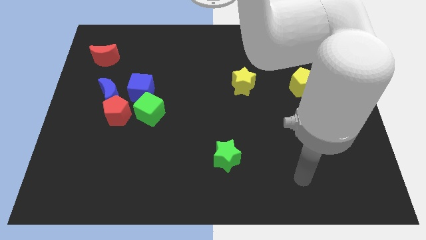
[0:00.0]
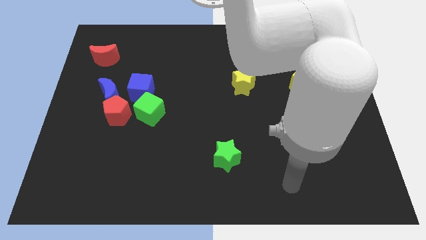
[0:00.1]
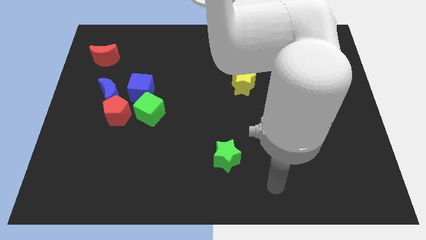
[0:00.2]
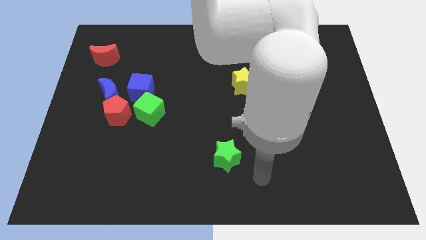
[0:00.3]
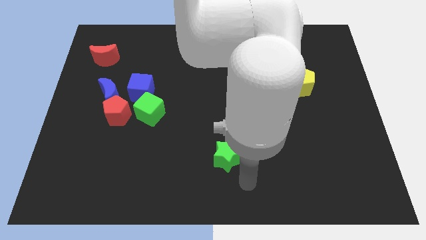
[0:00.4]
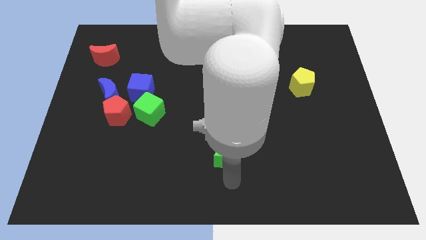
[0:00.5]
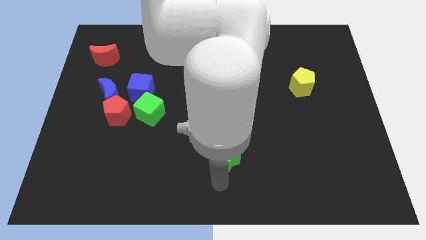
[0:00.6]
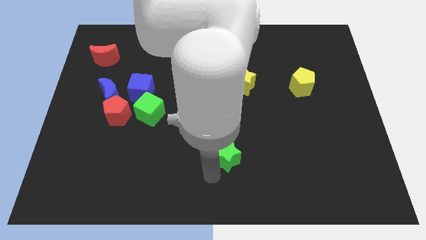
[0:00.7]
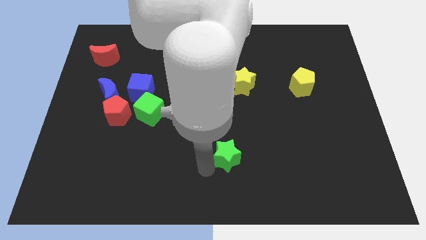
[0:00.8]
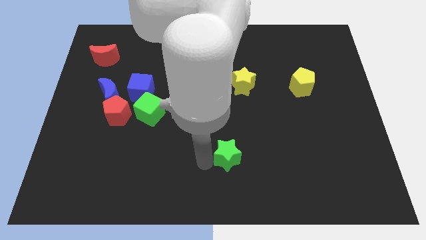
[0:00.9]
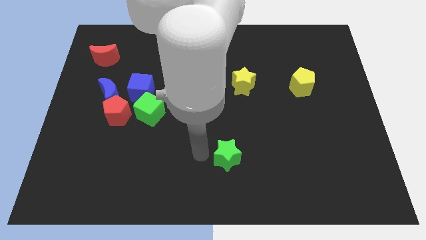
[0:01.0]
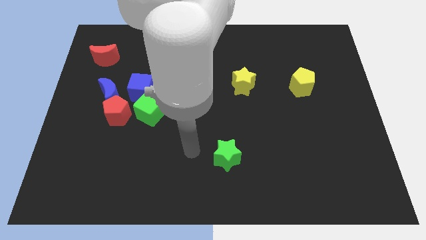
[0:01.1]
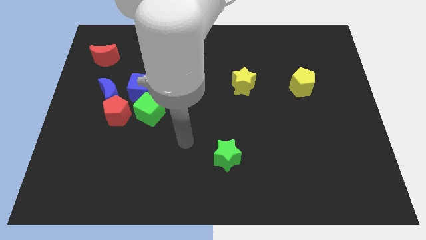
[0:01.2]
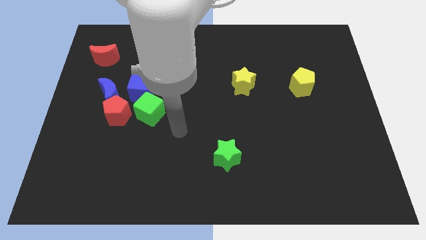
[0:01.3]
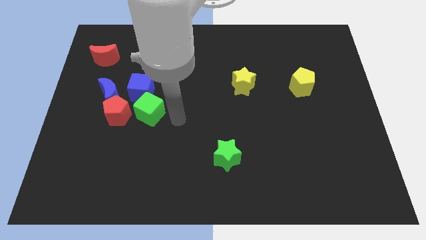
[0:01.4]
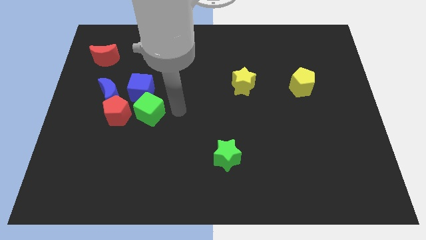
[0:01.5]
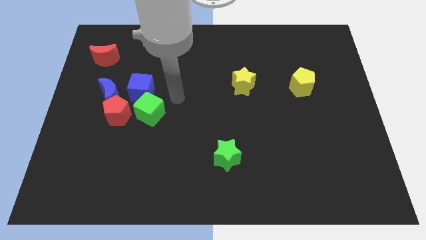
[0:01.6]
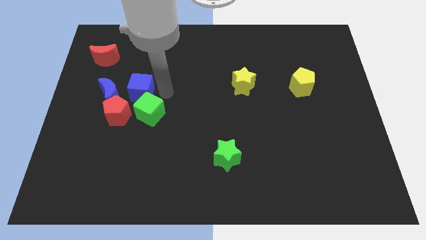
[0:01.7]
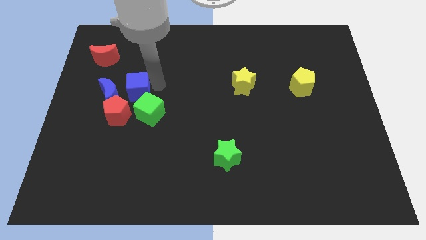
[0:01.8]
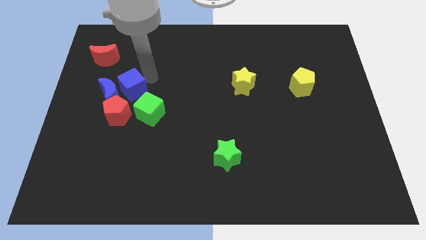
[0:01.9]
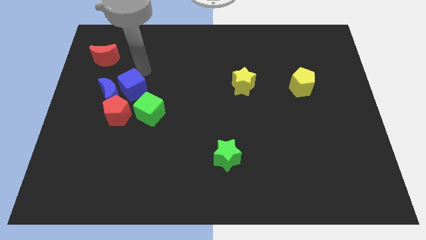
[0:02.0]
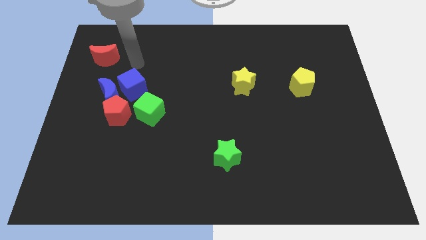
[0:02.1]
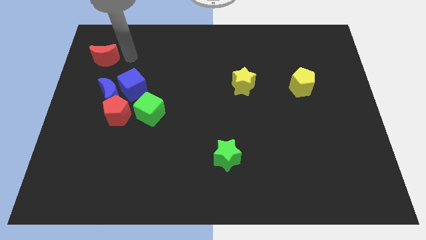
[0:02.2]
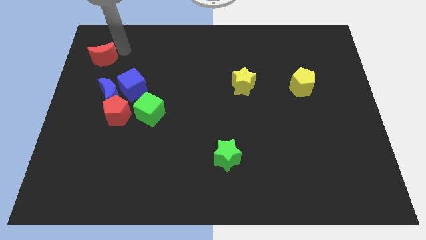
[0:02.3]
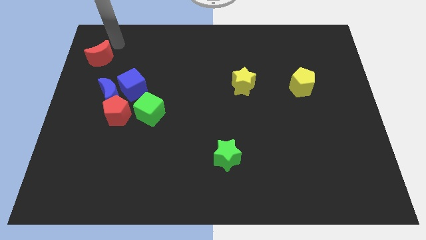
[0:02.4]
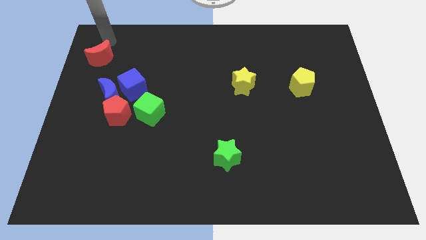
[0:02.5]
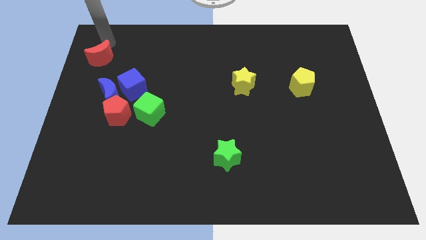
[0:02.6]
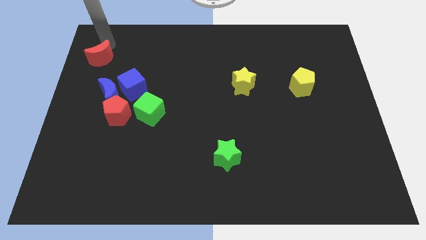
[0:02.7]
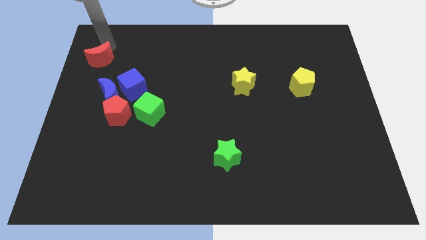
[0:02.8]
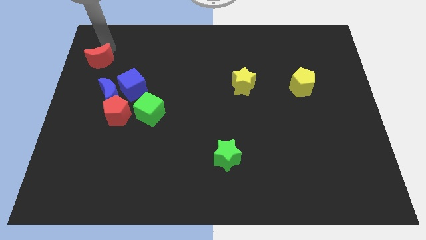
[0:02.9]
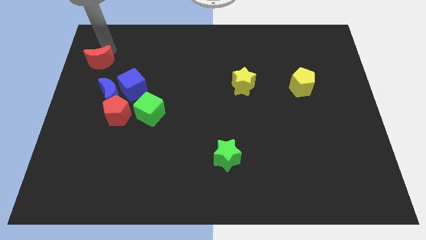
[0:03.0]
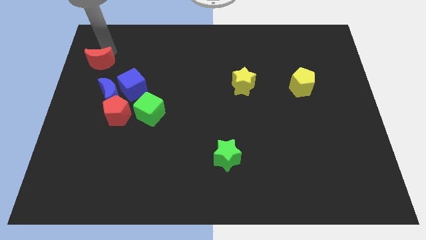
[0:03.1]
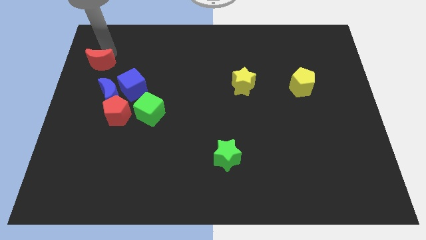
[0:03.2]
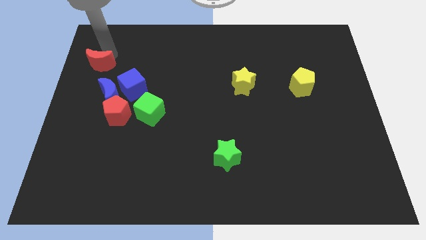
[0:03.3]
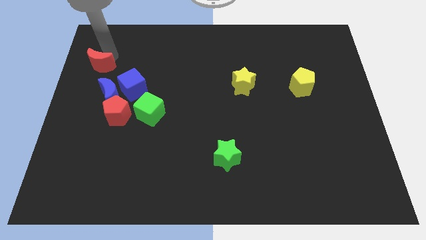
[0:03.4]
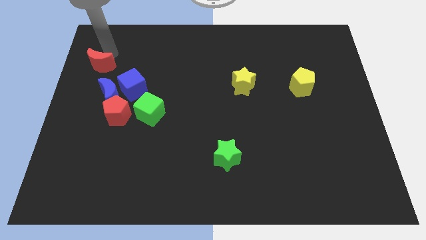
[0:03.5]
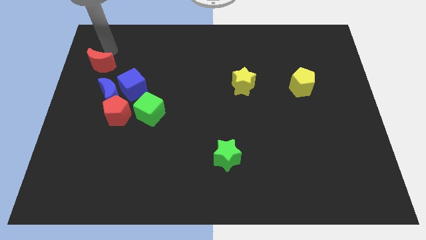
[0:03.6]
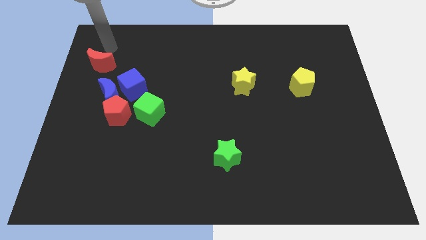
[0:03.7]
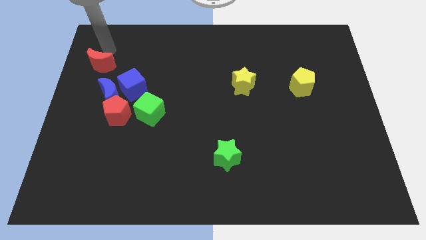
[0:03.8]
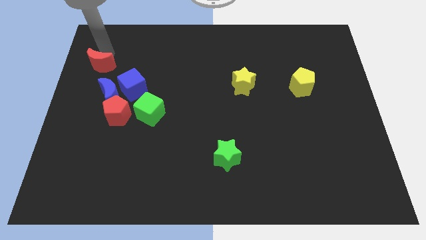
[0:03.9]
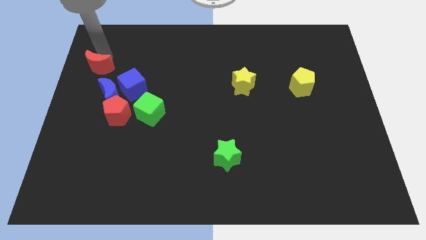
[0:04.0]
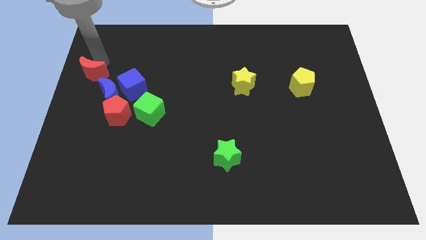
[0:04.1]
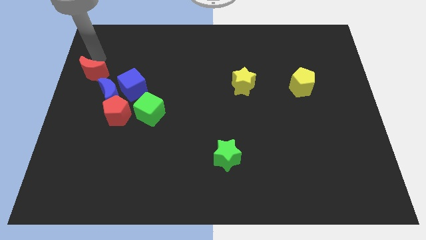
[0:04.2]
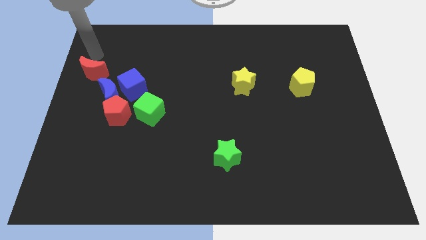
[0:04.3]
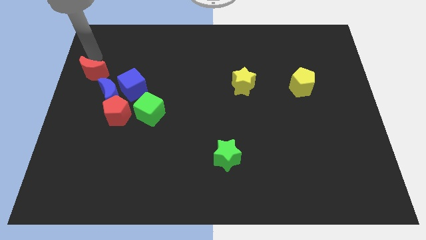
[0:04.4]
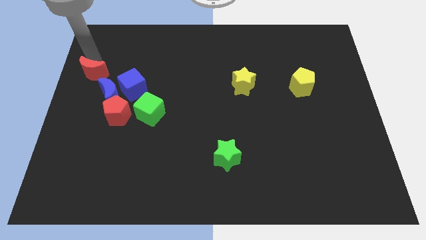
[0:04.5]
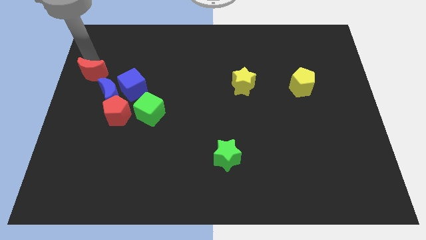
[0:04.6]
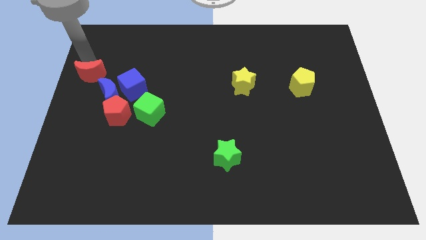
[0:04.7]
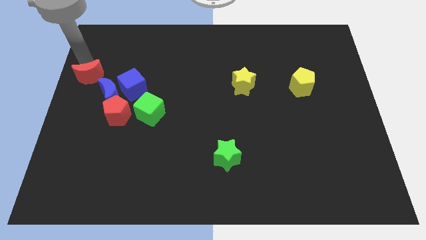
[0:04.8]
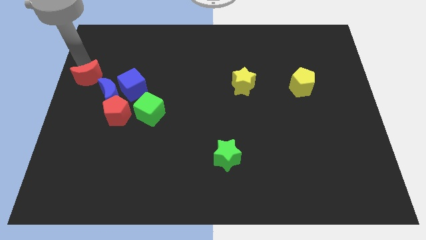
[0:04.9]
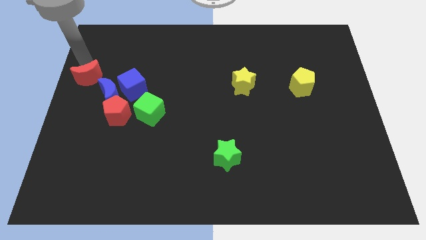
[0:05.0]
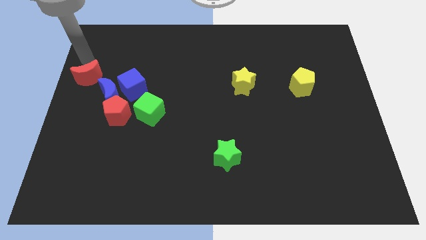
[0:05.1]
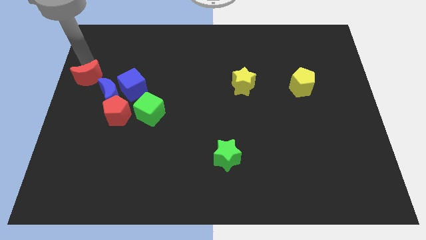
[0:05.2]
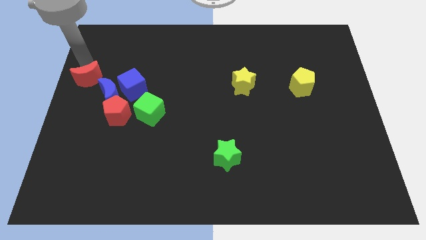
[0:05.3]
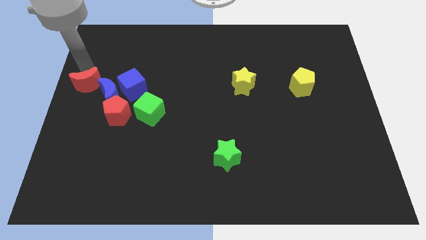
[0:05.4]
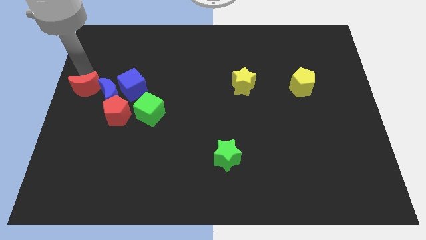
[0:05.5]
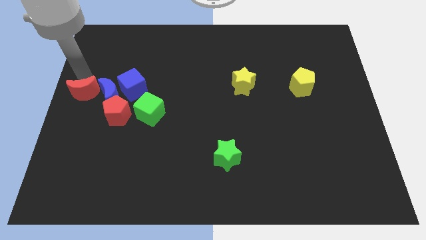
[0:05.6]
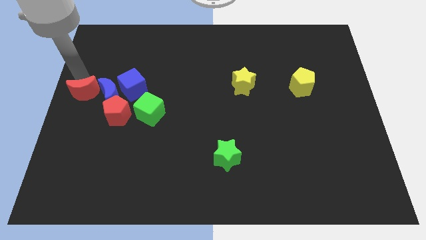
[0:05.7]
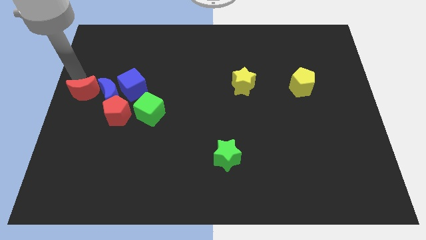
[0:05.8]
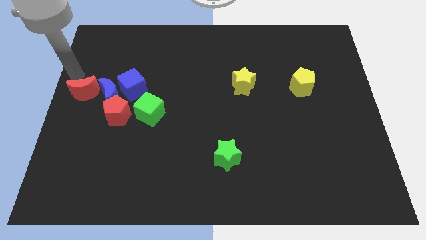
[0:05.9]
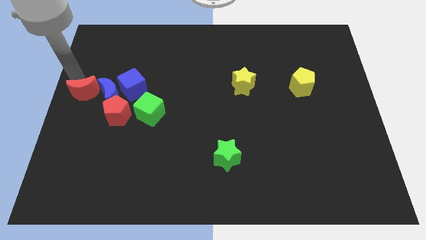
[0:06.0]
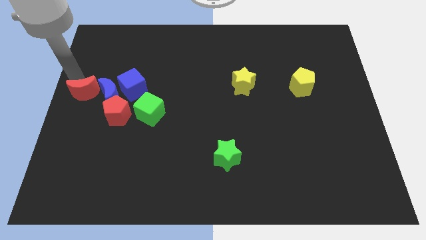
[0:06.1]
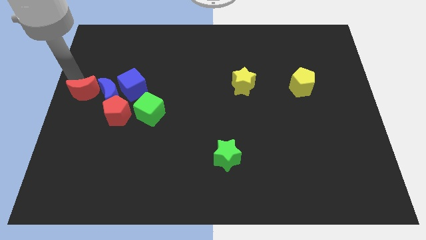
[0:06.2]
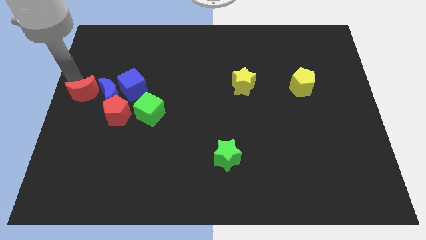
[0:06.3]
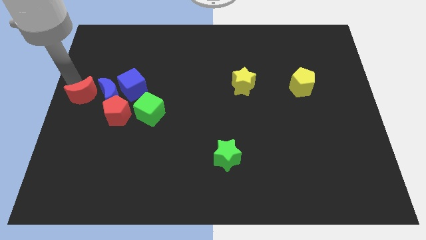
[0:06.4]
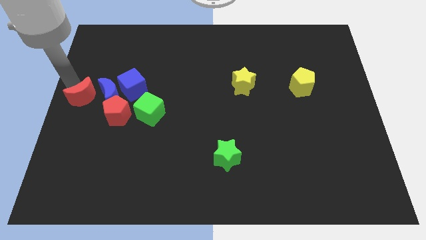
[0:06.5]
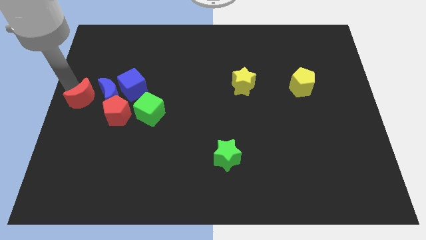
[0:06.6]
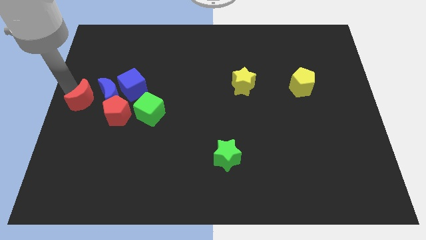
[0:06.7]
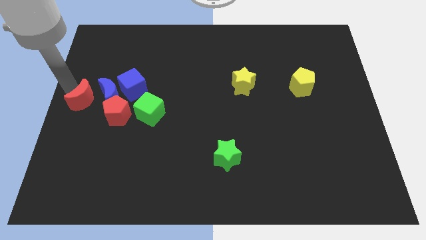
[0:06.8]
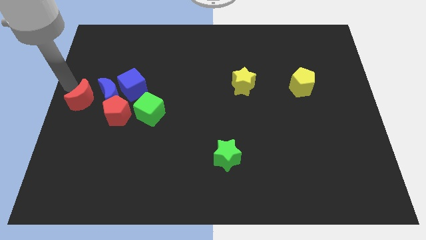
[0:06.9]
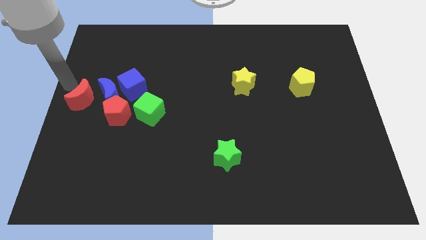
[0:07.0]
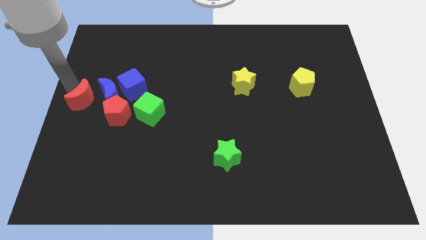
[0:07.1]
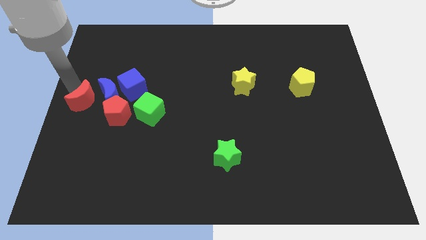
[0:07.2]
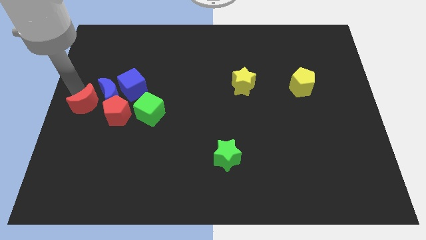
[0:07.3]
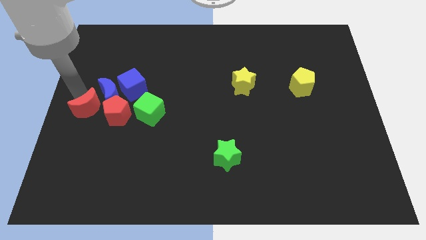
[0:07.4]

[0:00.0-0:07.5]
move the red moon to the bottom of the blue moon
